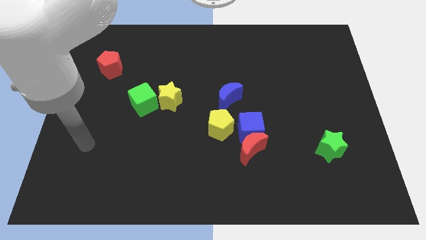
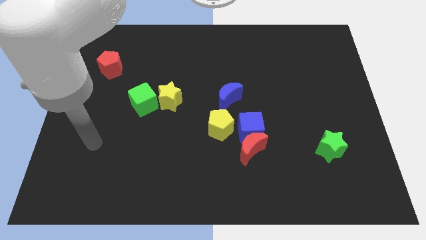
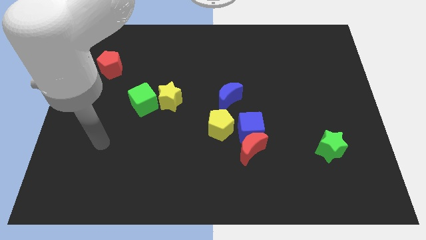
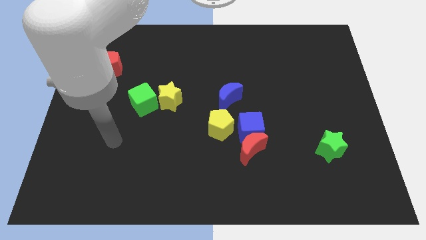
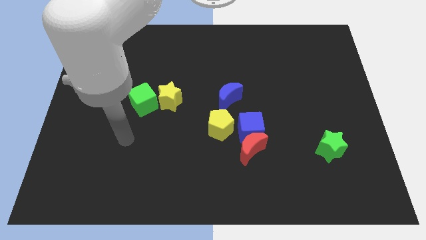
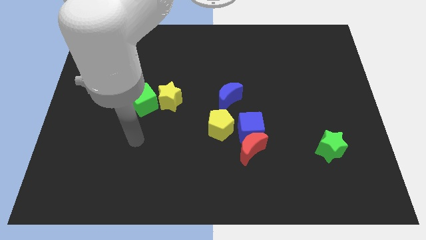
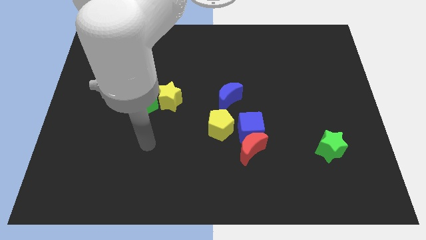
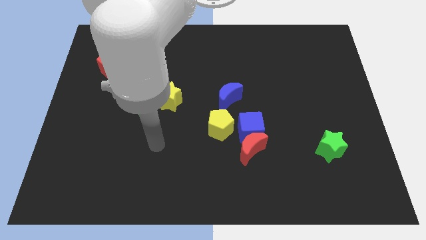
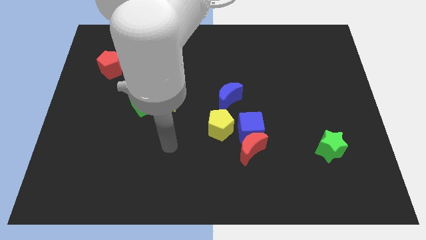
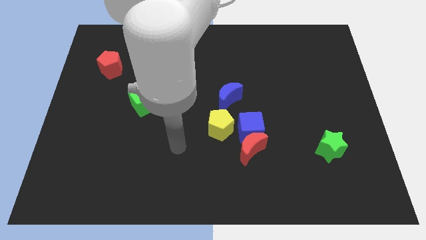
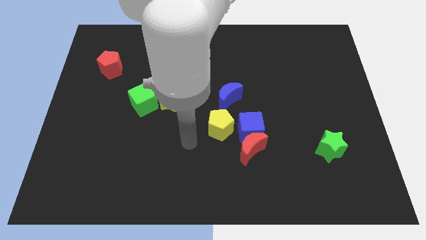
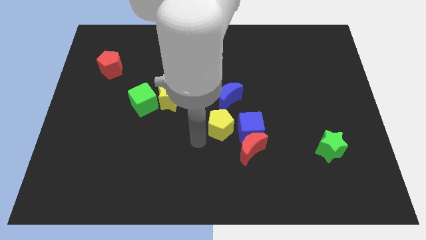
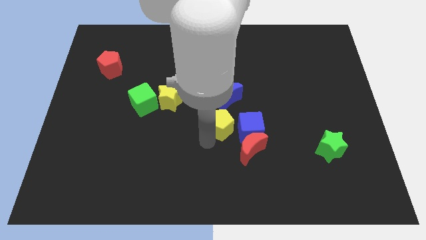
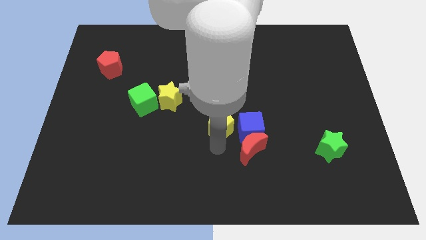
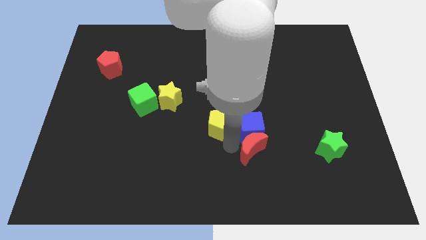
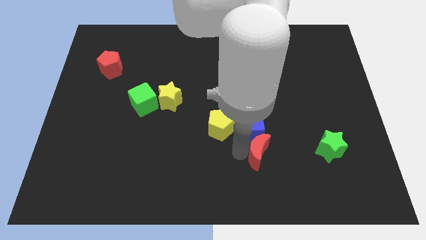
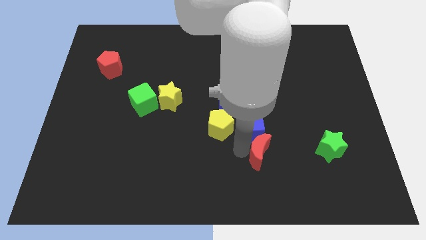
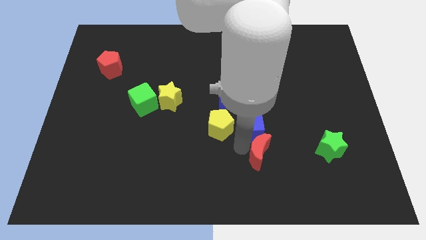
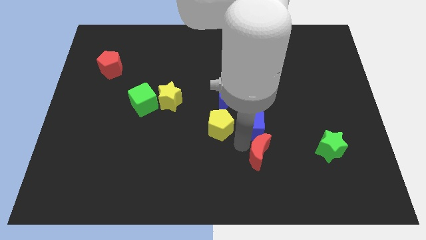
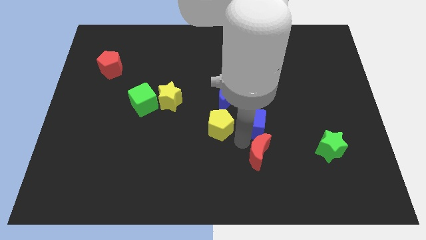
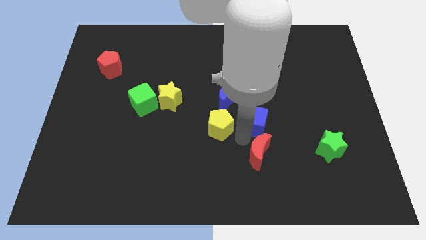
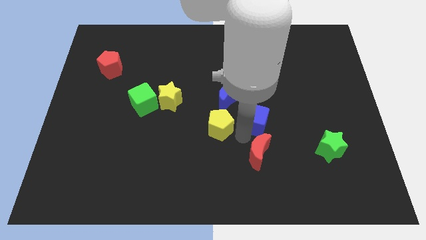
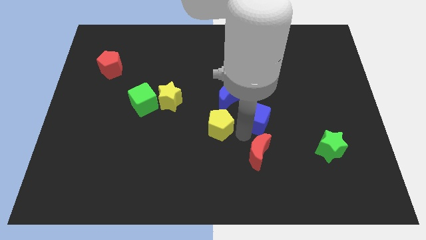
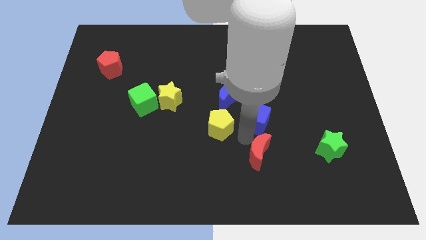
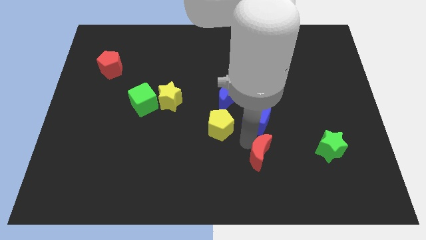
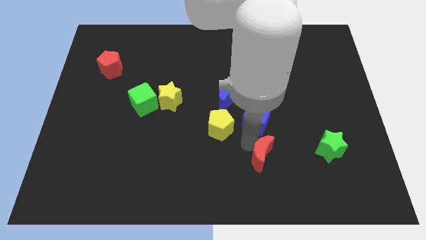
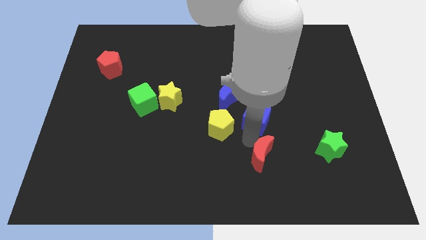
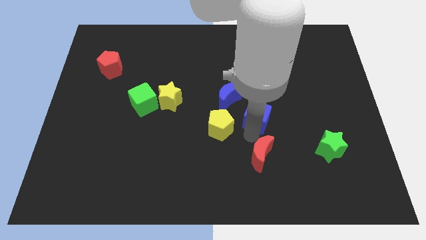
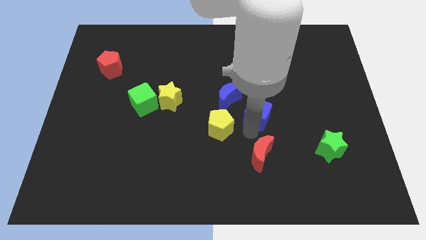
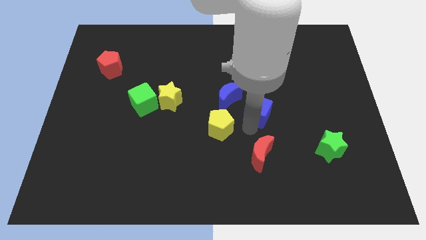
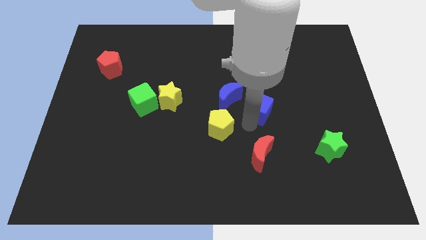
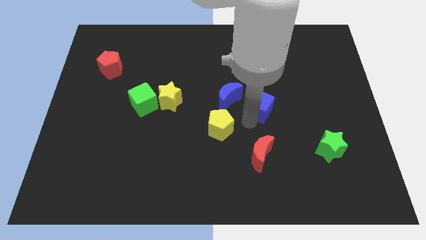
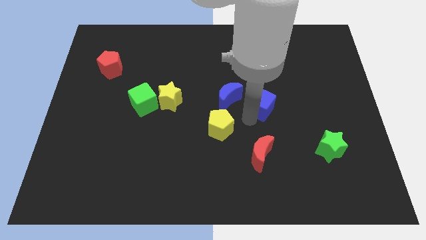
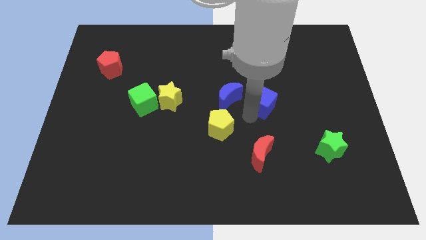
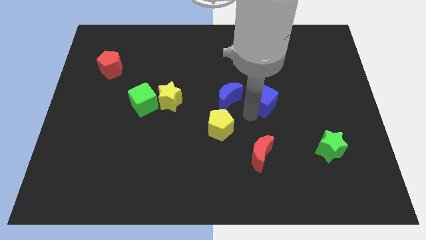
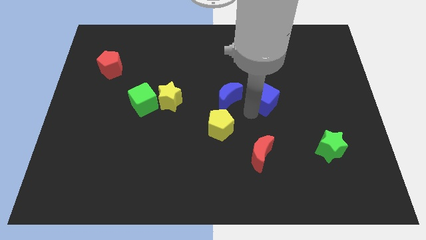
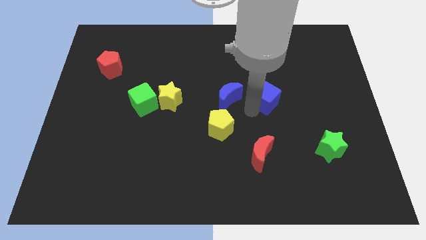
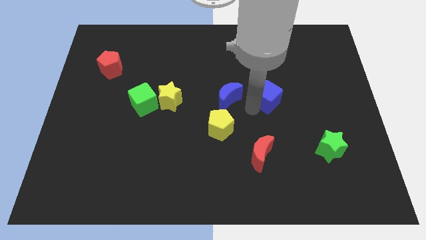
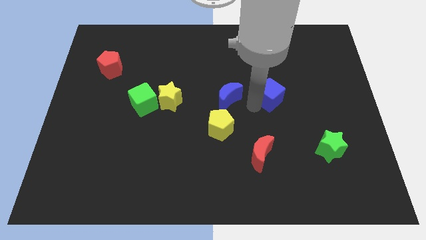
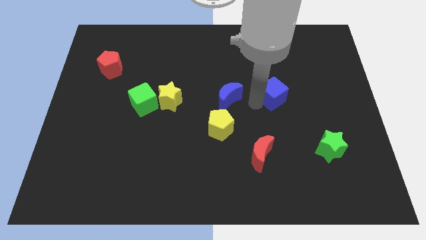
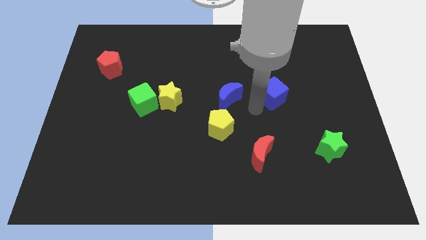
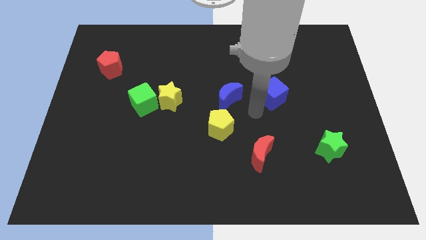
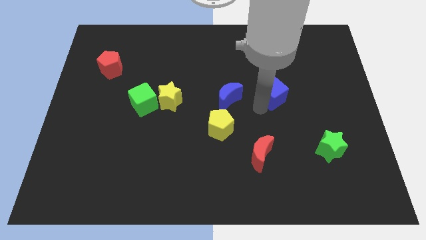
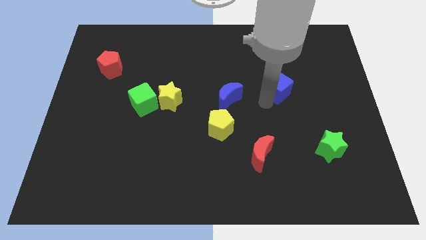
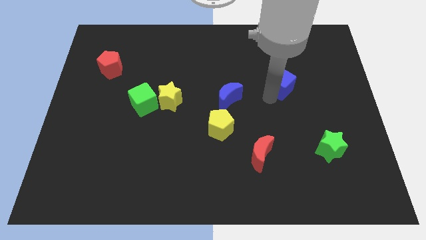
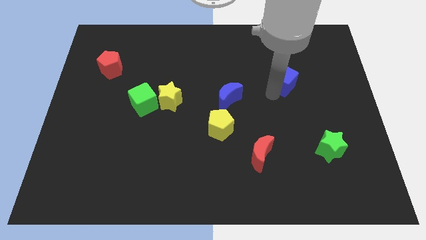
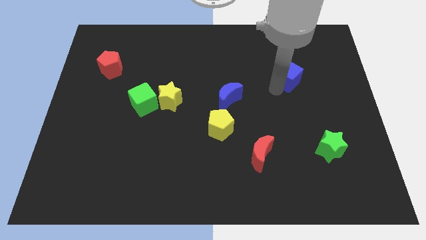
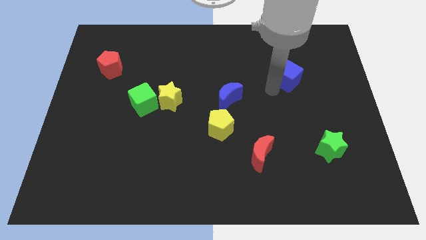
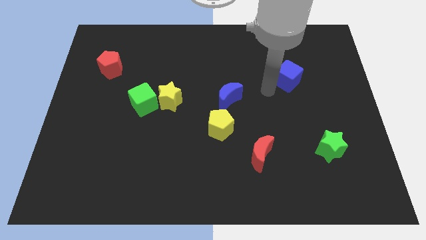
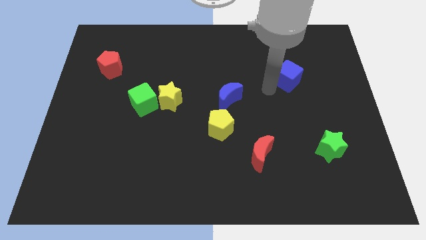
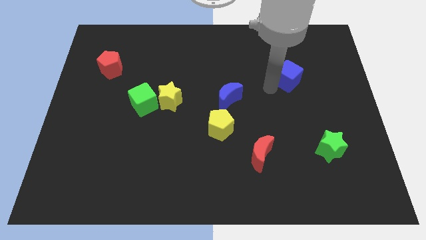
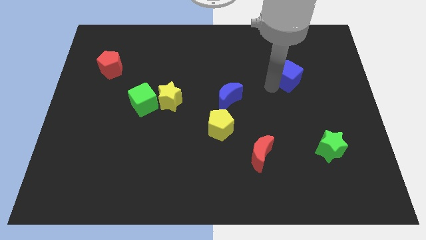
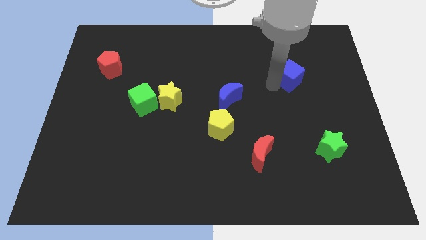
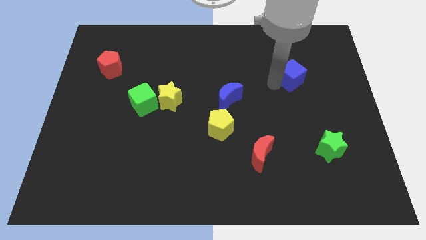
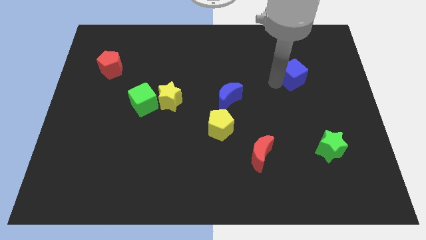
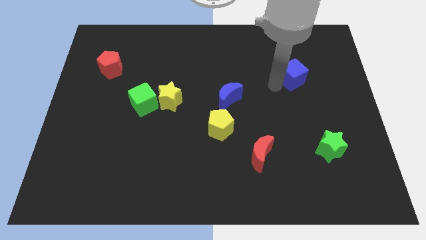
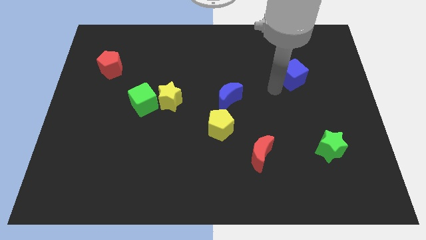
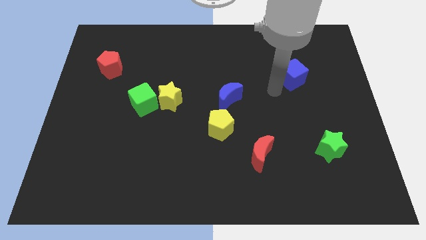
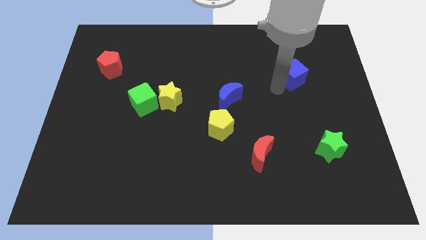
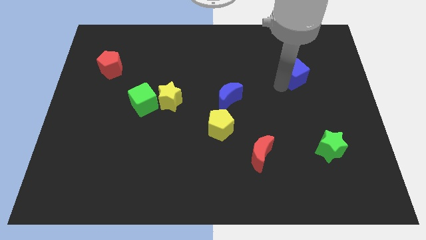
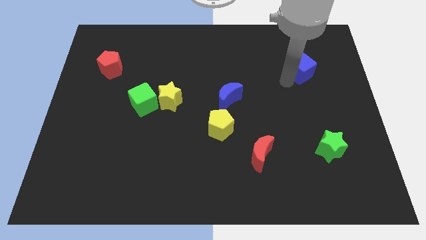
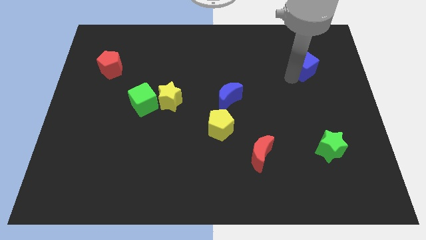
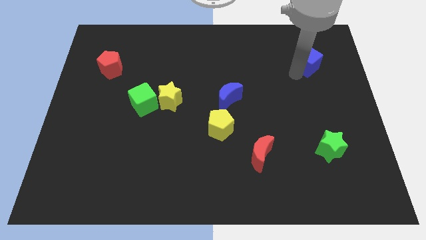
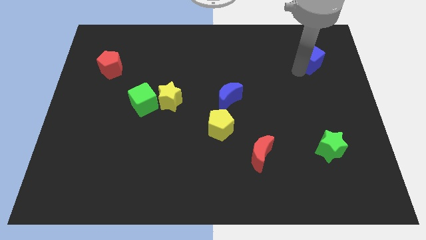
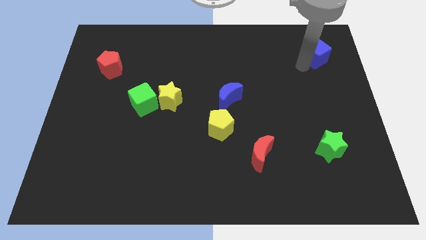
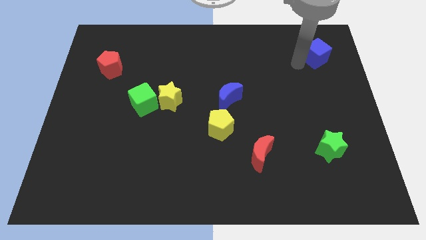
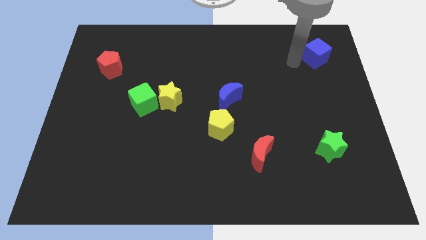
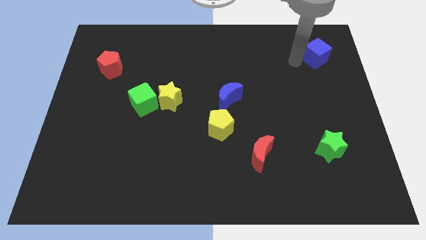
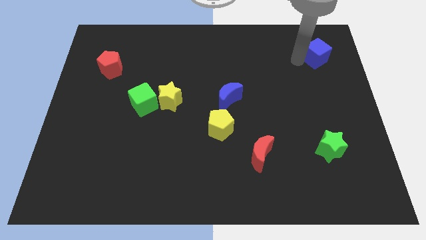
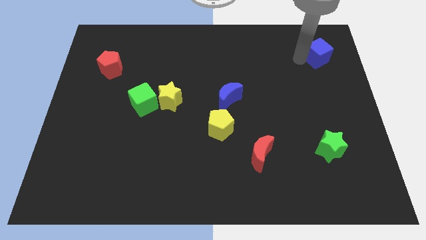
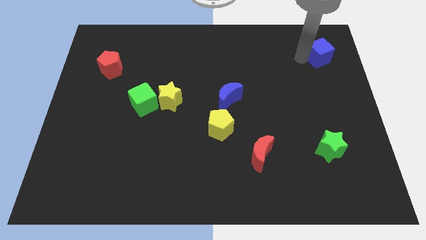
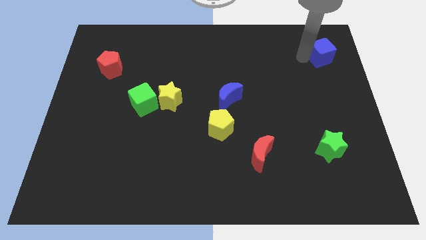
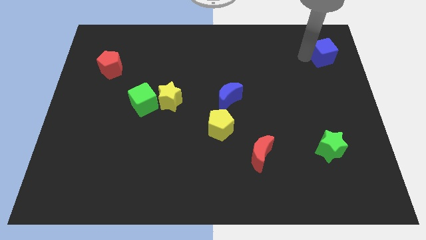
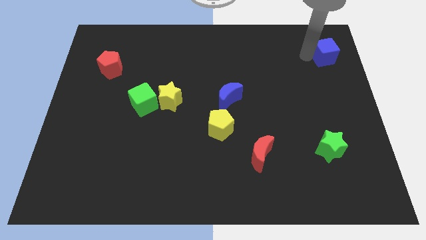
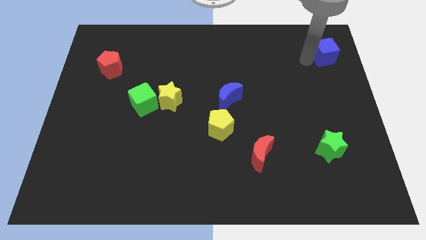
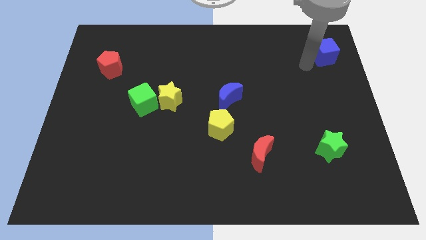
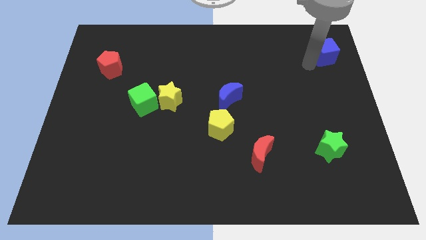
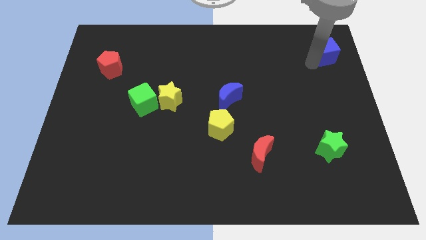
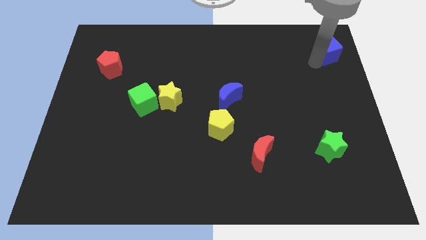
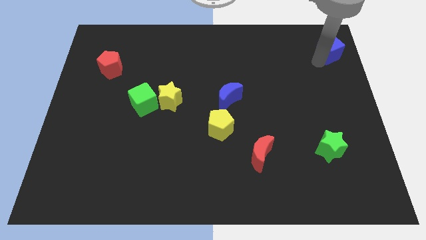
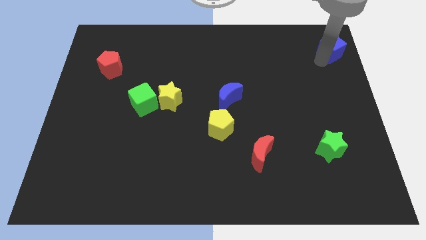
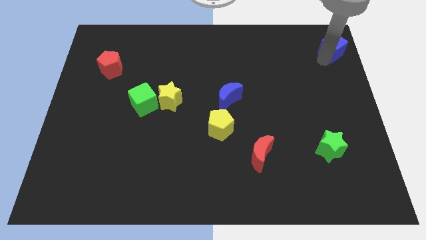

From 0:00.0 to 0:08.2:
slide the blue cube to the top right corner
